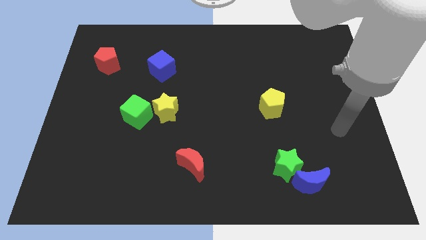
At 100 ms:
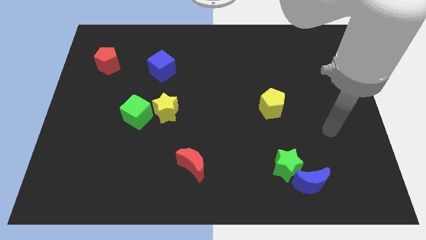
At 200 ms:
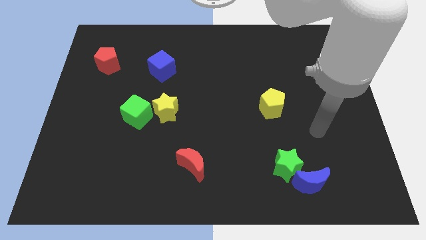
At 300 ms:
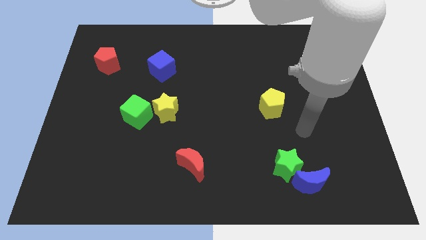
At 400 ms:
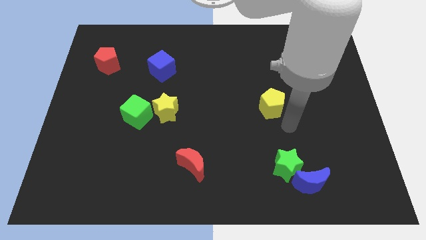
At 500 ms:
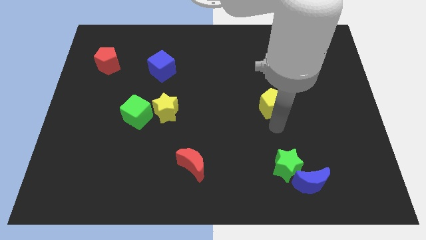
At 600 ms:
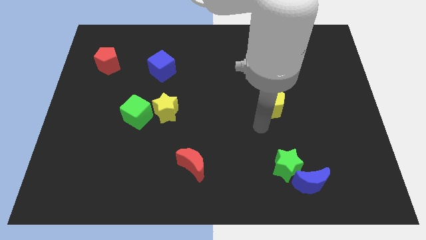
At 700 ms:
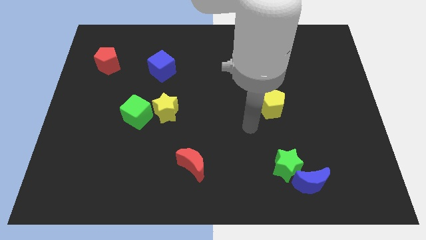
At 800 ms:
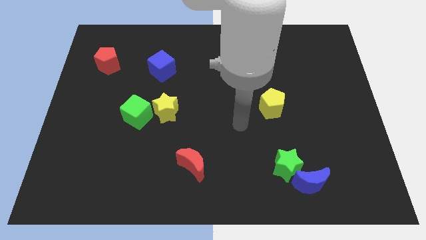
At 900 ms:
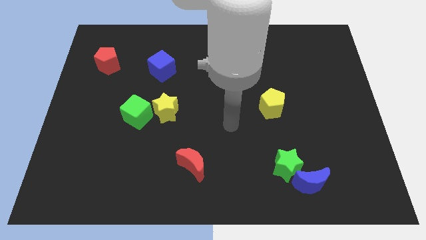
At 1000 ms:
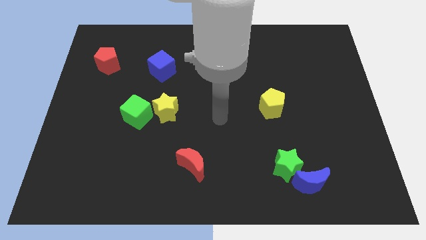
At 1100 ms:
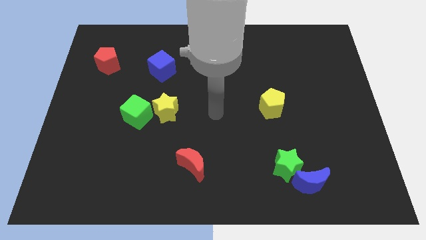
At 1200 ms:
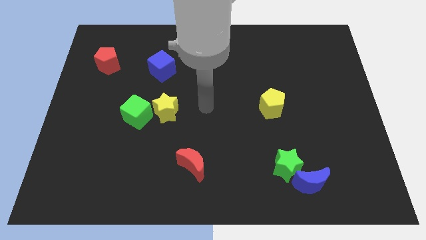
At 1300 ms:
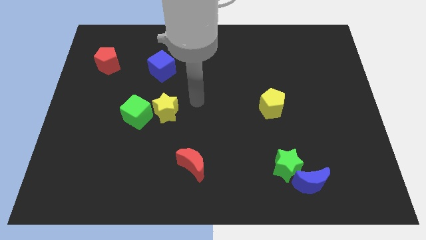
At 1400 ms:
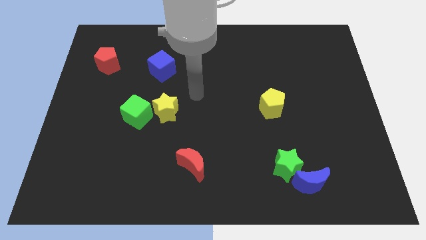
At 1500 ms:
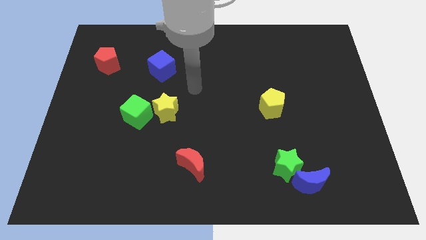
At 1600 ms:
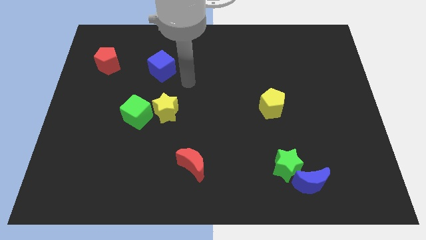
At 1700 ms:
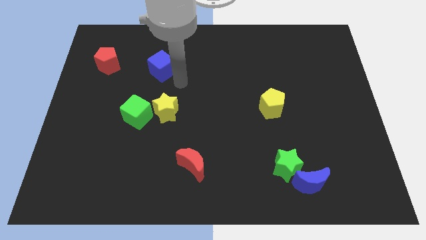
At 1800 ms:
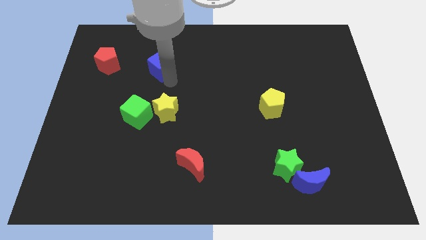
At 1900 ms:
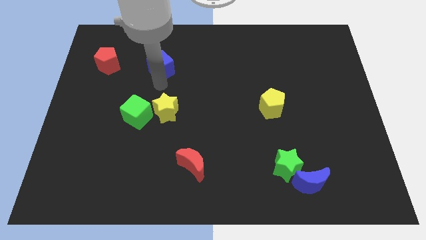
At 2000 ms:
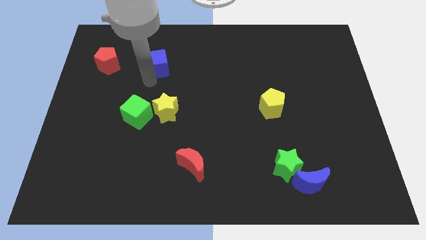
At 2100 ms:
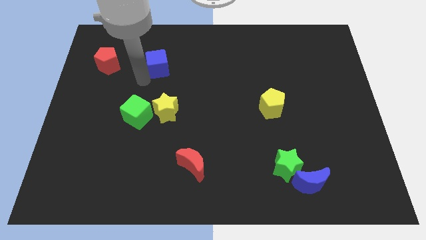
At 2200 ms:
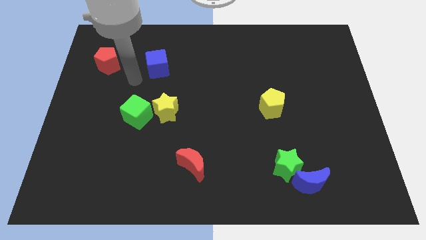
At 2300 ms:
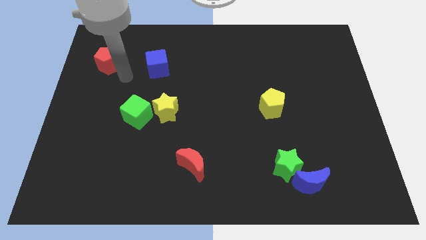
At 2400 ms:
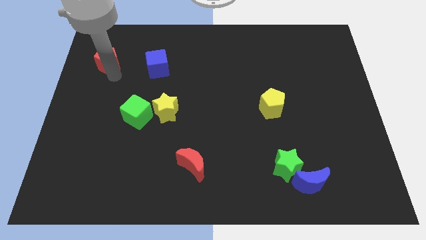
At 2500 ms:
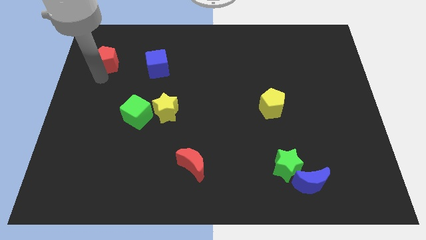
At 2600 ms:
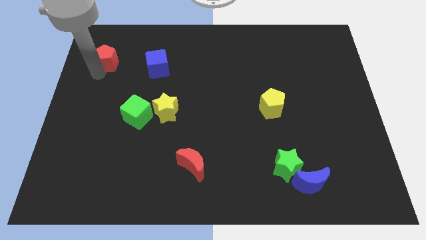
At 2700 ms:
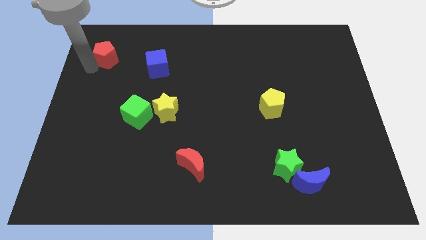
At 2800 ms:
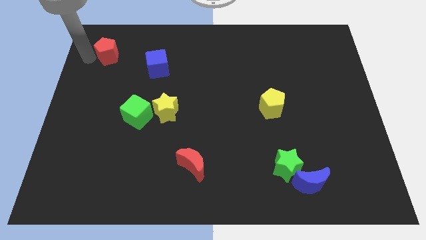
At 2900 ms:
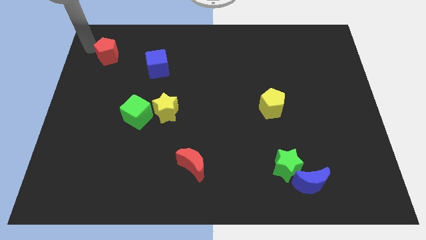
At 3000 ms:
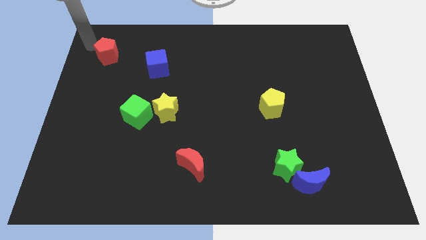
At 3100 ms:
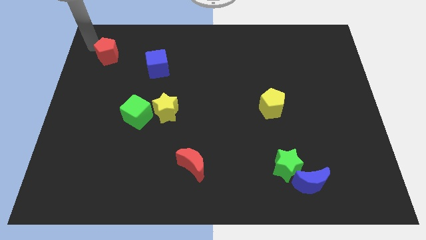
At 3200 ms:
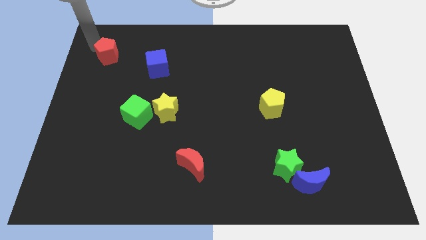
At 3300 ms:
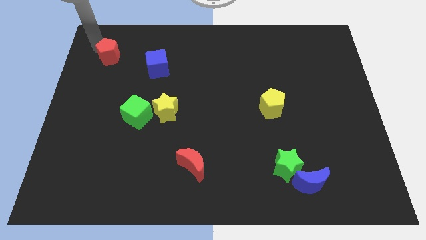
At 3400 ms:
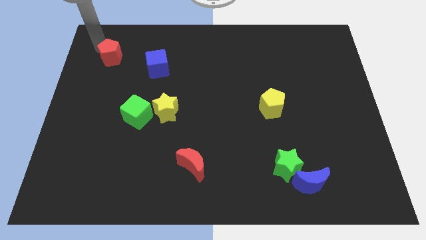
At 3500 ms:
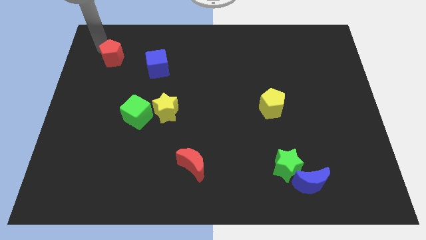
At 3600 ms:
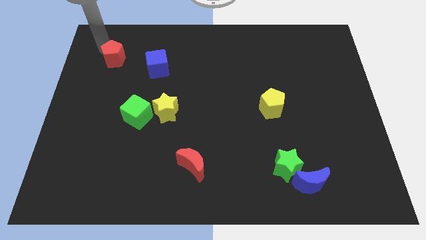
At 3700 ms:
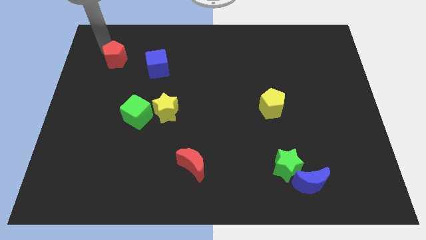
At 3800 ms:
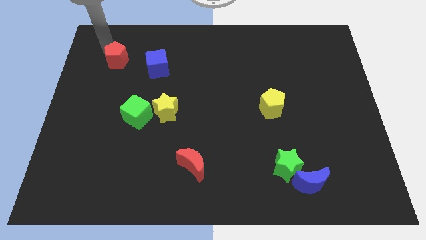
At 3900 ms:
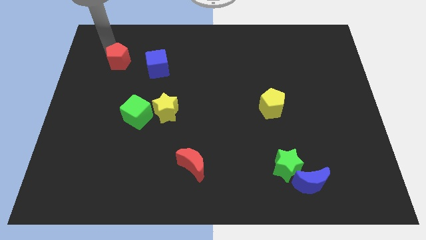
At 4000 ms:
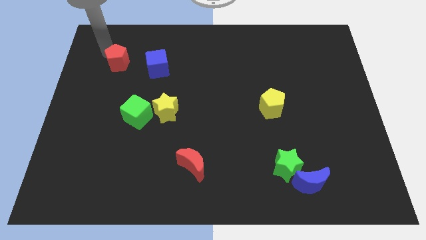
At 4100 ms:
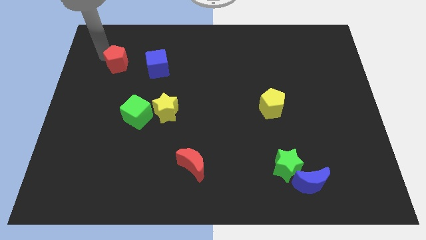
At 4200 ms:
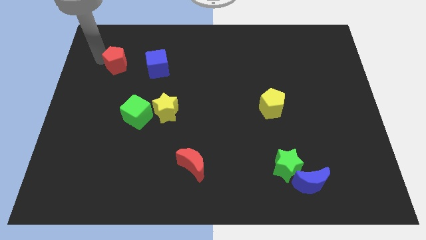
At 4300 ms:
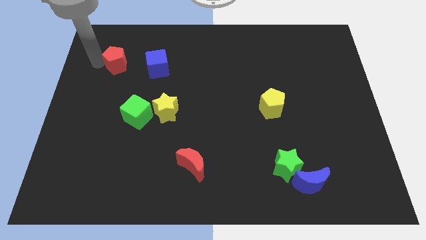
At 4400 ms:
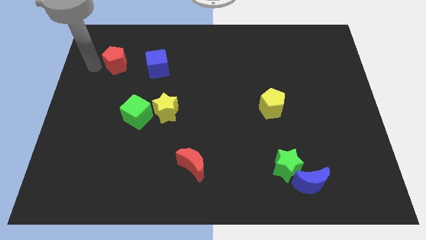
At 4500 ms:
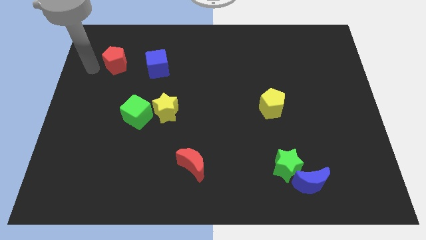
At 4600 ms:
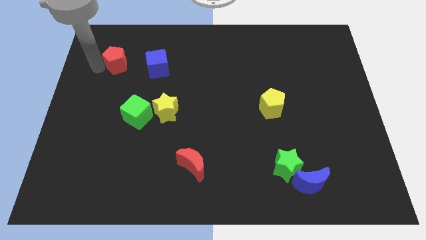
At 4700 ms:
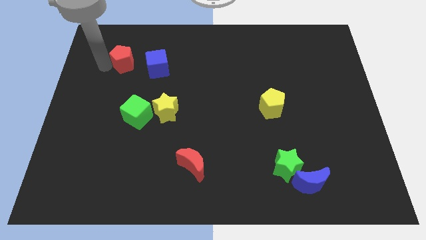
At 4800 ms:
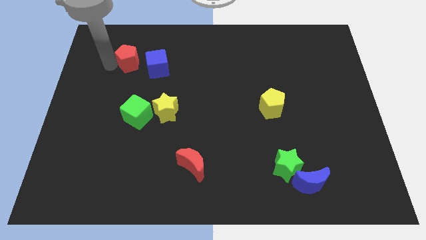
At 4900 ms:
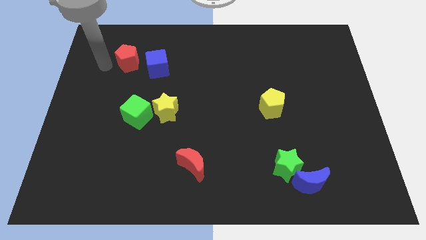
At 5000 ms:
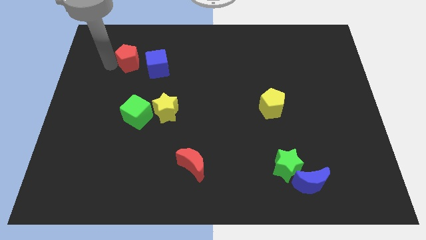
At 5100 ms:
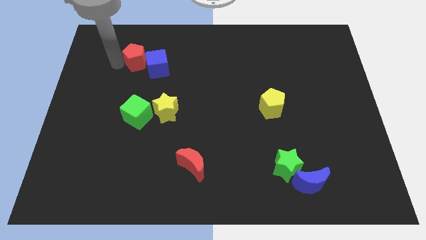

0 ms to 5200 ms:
push the red pentagon slightly right

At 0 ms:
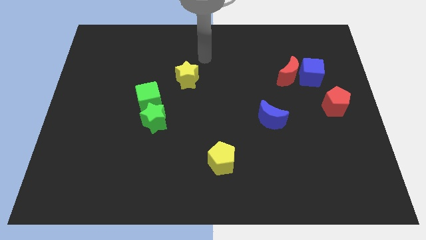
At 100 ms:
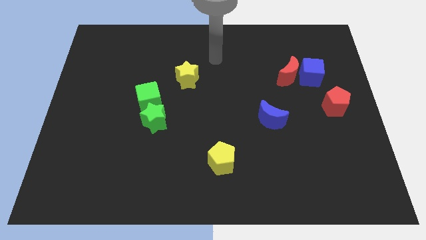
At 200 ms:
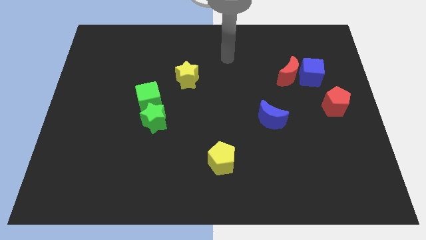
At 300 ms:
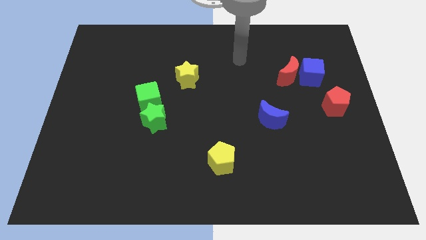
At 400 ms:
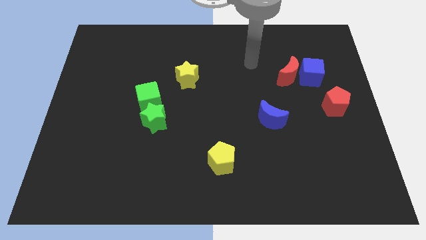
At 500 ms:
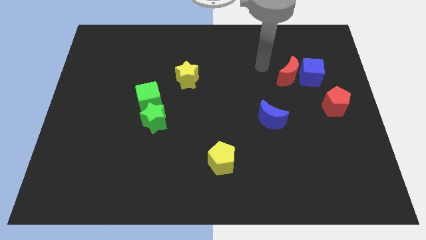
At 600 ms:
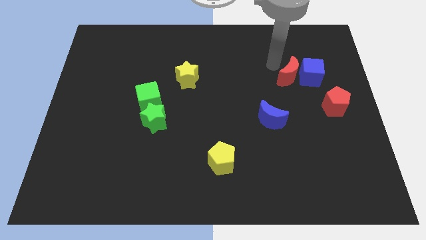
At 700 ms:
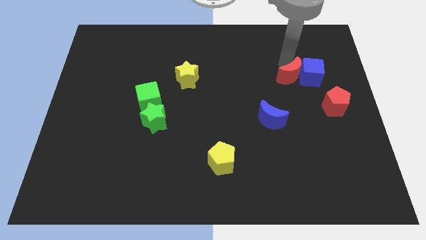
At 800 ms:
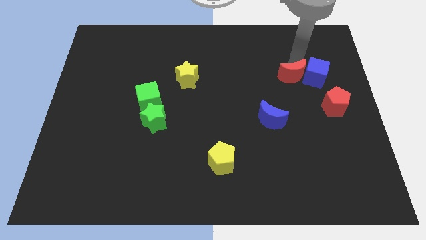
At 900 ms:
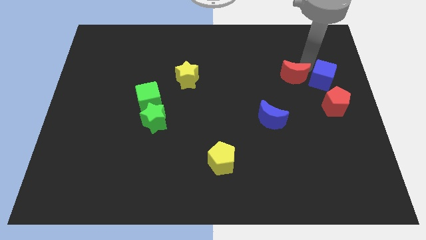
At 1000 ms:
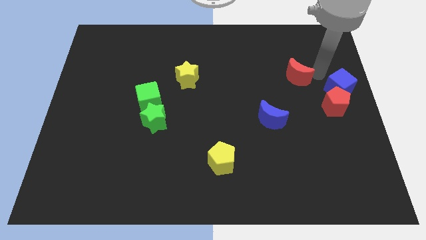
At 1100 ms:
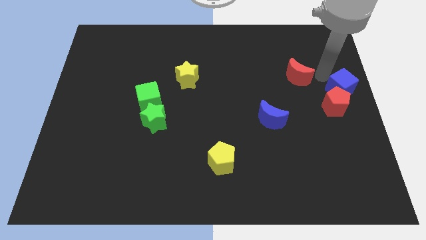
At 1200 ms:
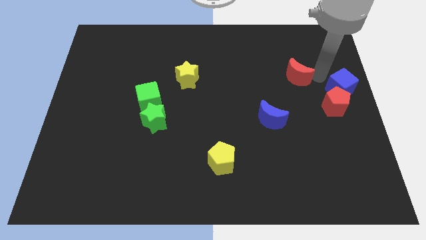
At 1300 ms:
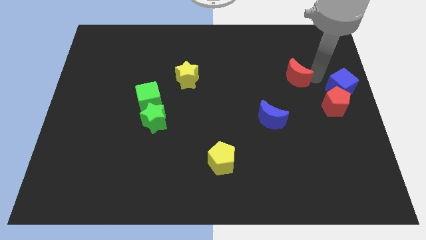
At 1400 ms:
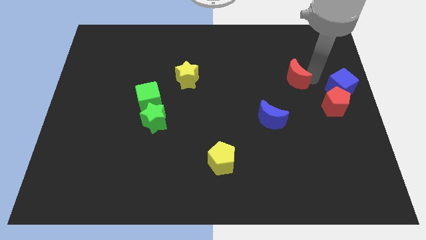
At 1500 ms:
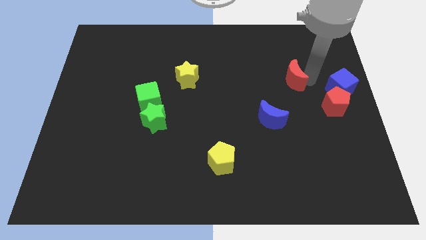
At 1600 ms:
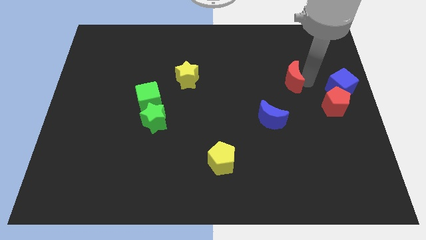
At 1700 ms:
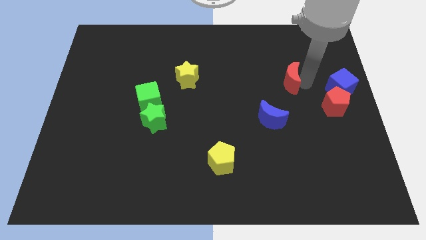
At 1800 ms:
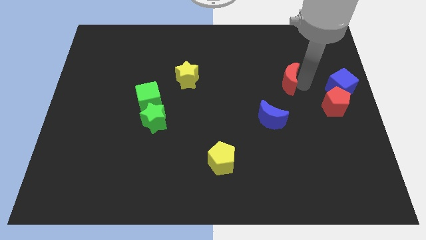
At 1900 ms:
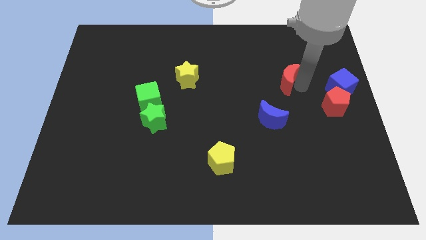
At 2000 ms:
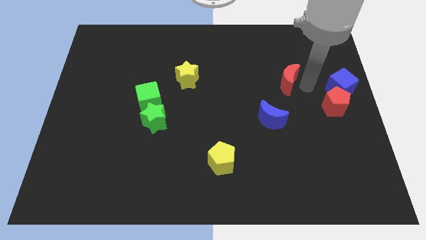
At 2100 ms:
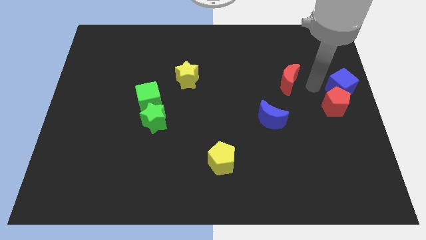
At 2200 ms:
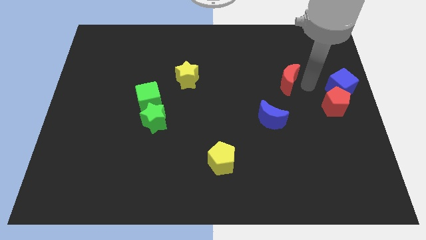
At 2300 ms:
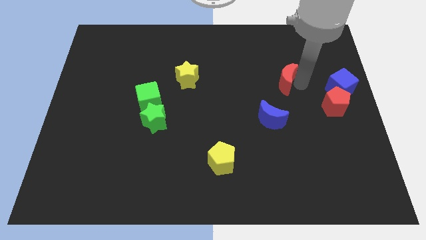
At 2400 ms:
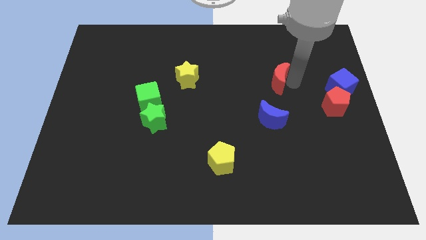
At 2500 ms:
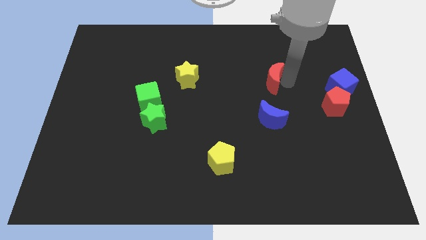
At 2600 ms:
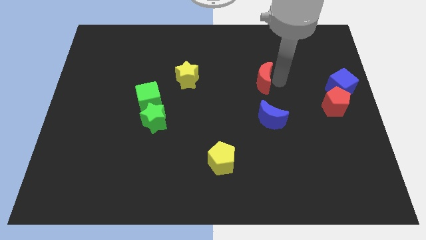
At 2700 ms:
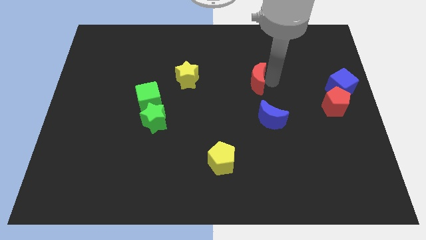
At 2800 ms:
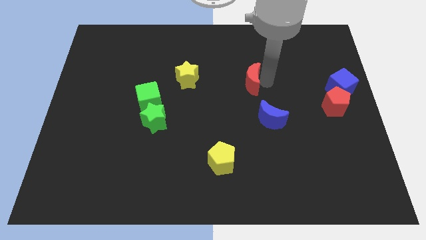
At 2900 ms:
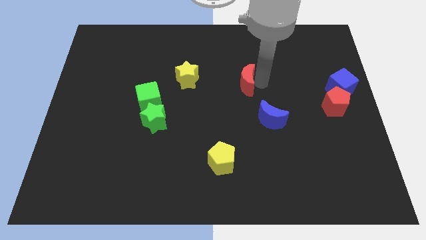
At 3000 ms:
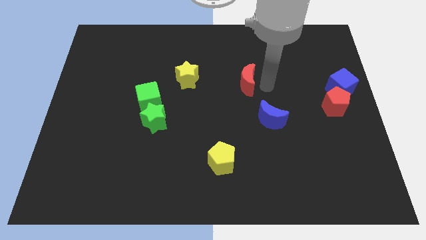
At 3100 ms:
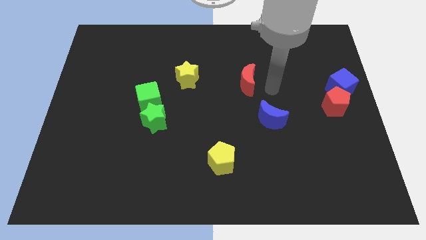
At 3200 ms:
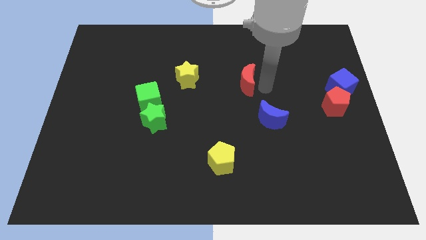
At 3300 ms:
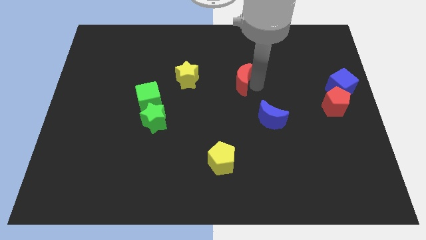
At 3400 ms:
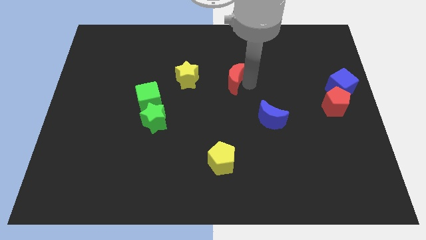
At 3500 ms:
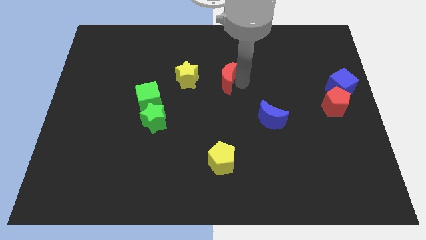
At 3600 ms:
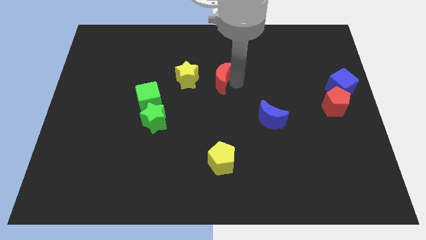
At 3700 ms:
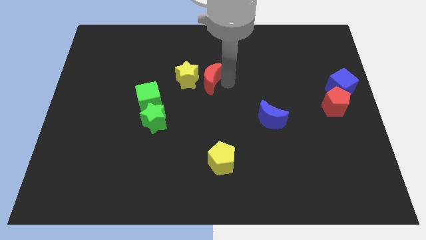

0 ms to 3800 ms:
push the red moon to the left
